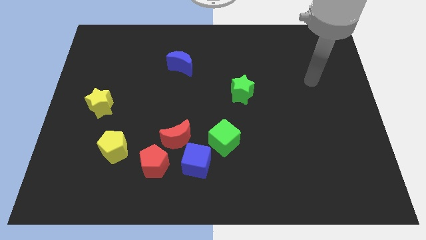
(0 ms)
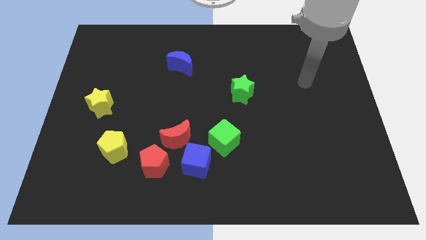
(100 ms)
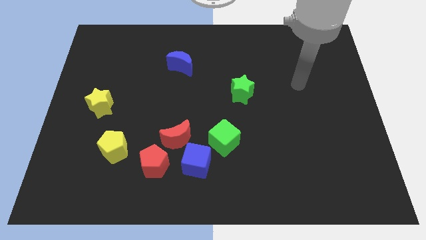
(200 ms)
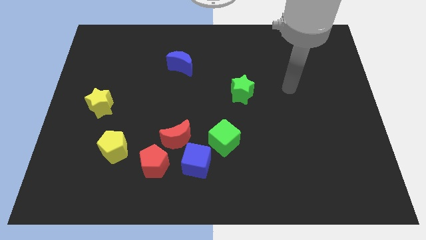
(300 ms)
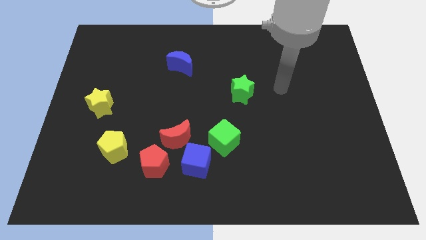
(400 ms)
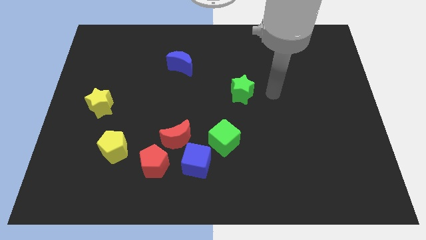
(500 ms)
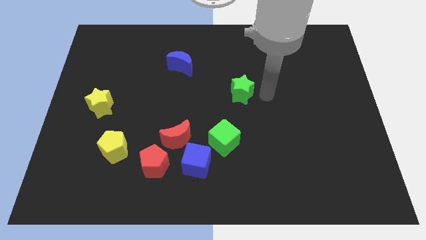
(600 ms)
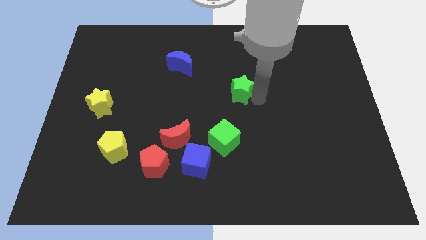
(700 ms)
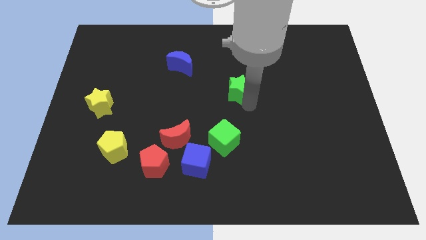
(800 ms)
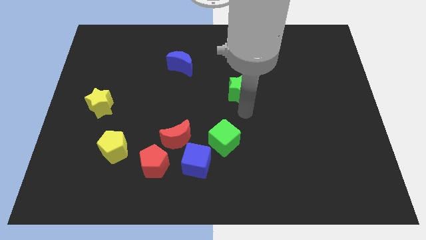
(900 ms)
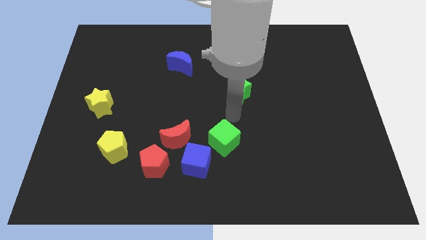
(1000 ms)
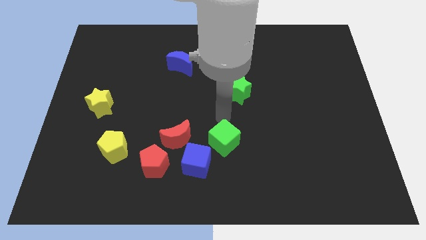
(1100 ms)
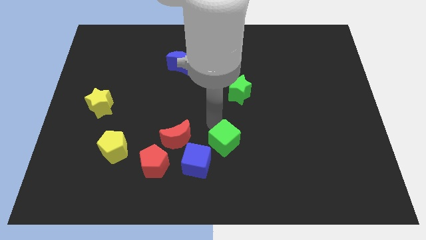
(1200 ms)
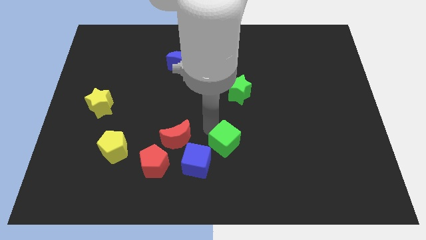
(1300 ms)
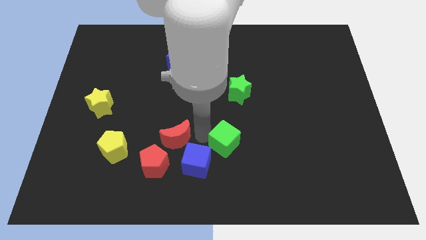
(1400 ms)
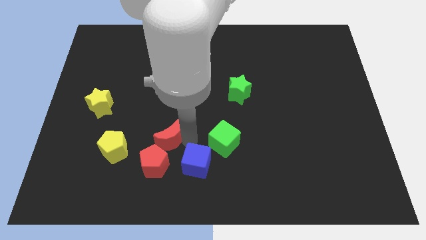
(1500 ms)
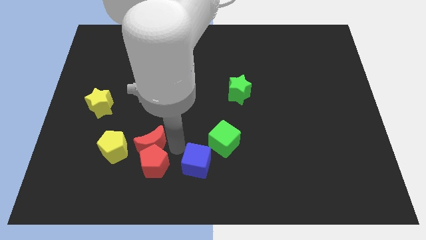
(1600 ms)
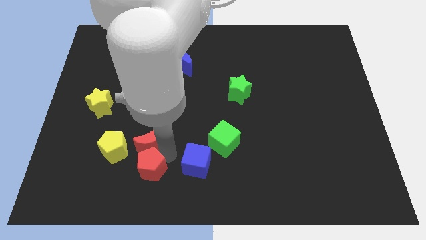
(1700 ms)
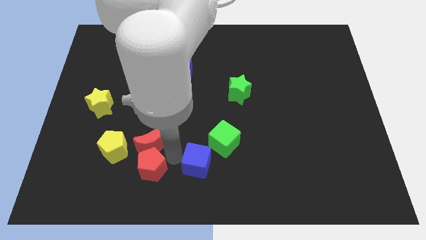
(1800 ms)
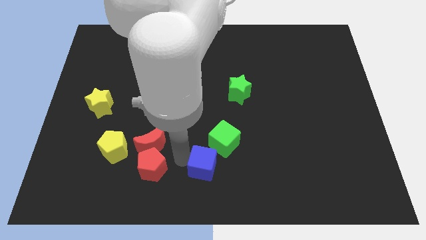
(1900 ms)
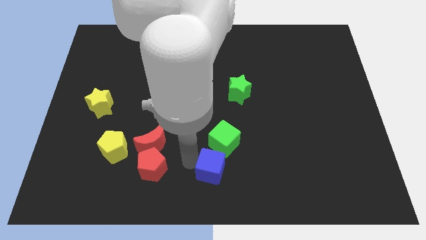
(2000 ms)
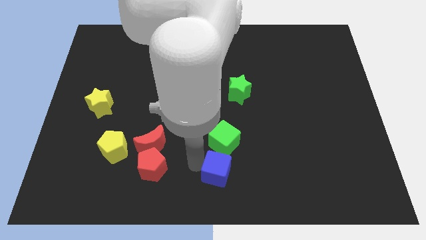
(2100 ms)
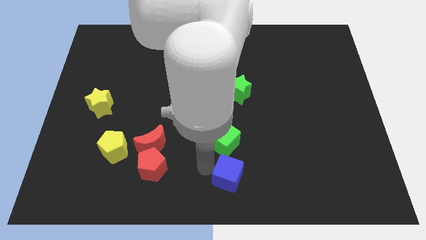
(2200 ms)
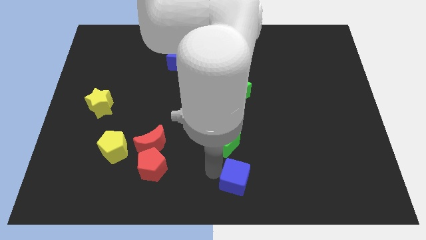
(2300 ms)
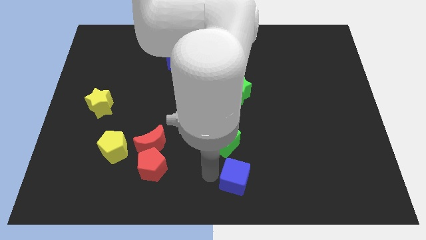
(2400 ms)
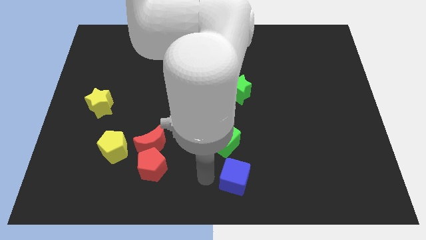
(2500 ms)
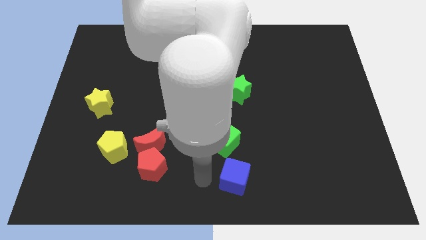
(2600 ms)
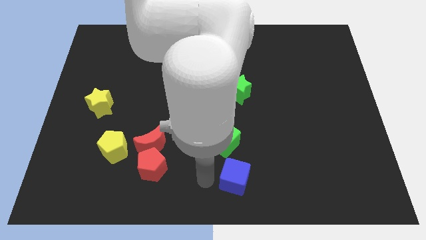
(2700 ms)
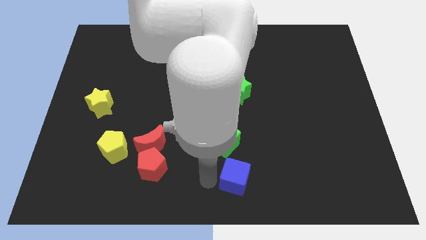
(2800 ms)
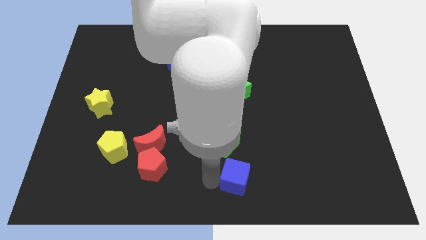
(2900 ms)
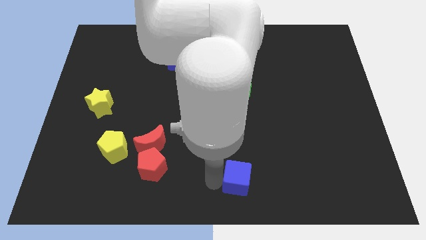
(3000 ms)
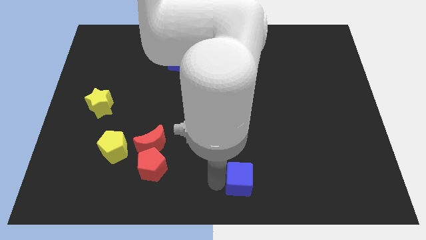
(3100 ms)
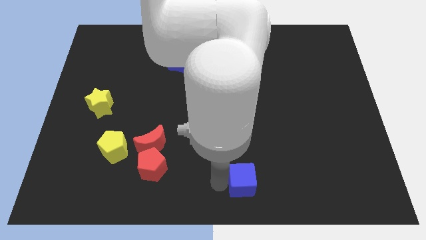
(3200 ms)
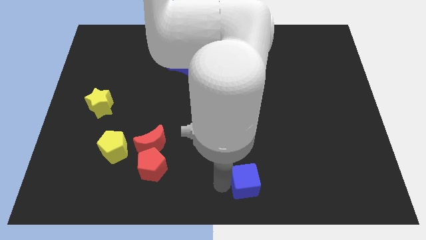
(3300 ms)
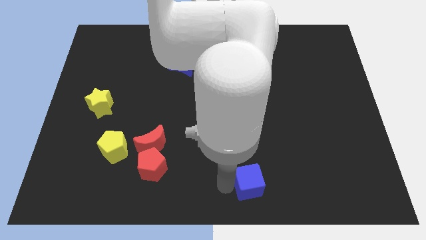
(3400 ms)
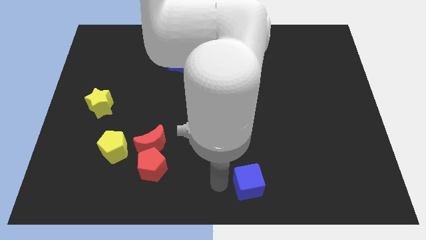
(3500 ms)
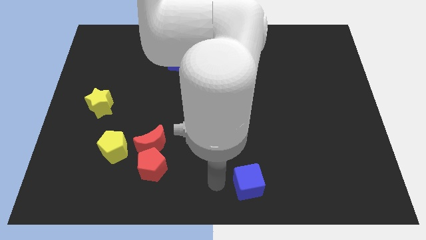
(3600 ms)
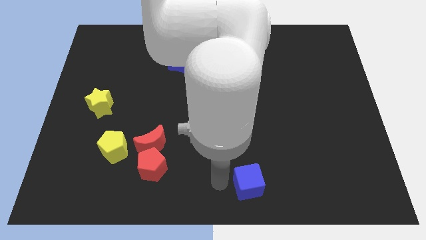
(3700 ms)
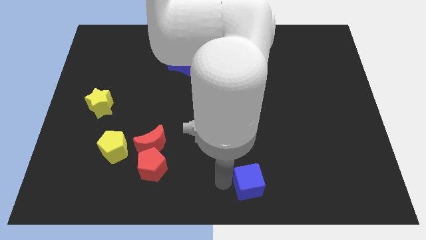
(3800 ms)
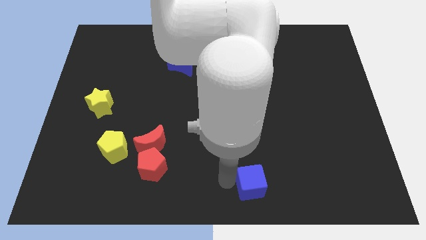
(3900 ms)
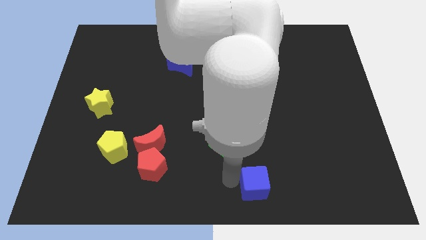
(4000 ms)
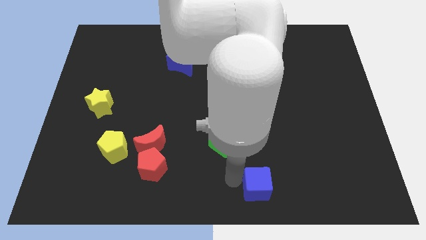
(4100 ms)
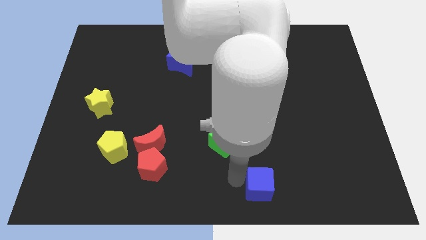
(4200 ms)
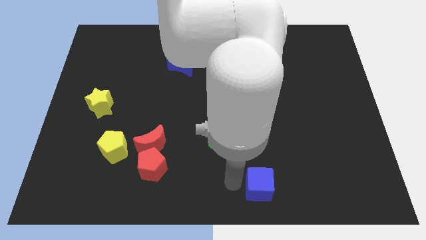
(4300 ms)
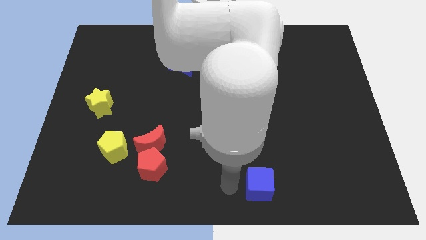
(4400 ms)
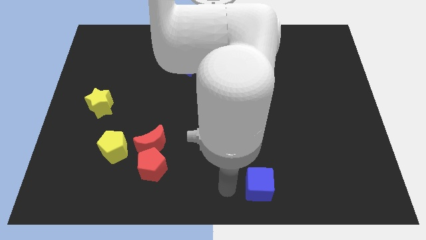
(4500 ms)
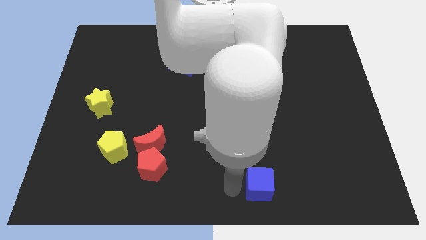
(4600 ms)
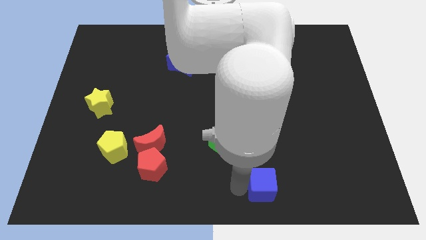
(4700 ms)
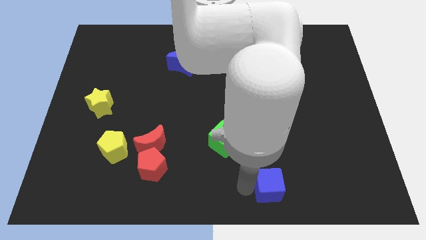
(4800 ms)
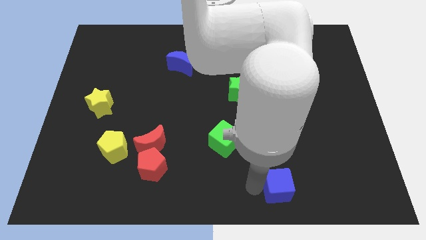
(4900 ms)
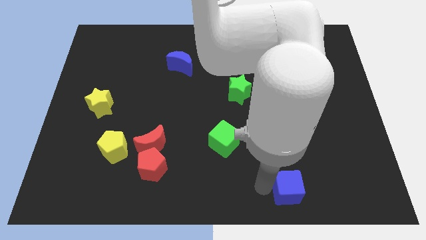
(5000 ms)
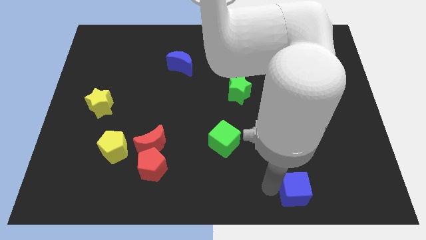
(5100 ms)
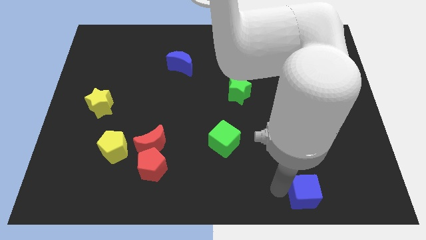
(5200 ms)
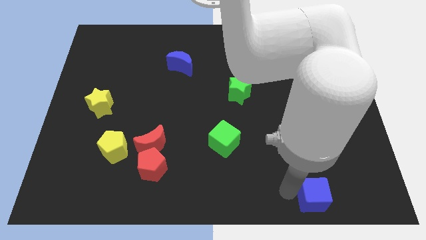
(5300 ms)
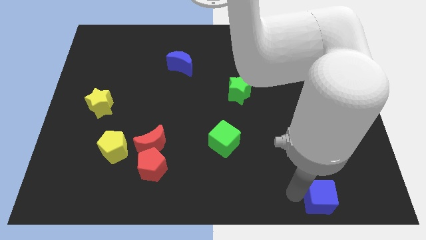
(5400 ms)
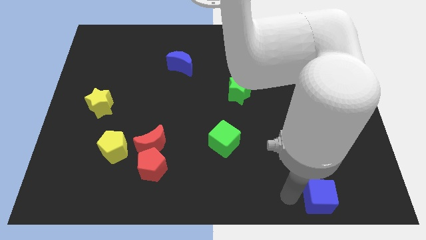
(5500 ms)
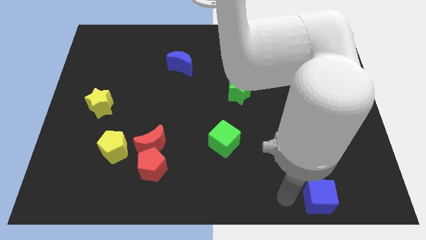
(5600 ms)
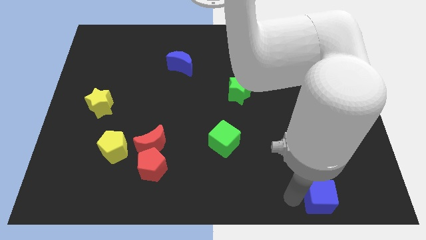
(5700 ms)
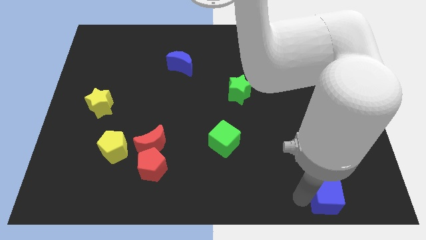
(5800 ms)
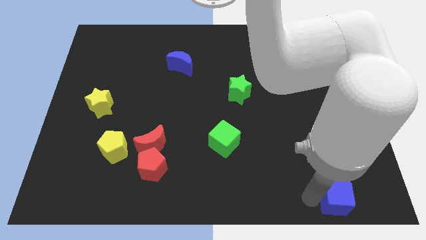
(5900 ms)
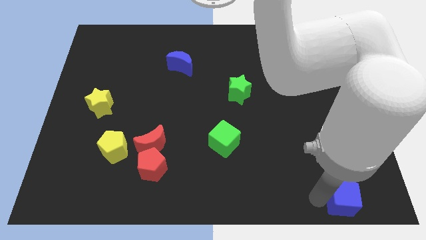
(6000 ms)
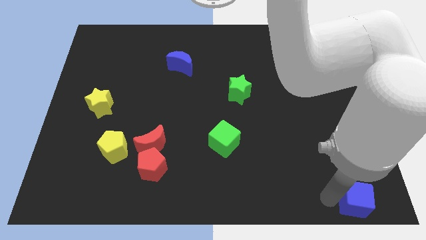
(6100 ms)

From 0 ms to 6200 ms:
slide the blue cube to the bottom right of the board

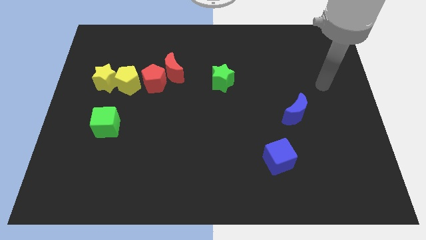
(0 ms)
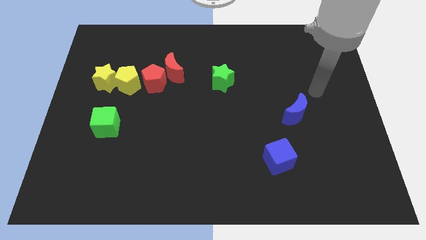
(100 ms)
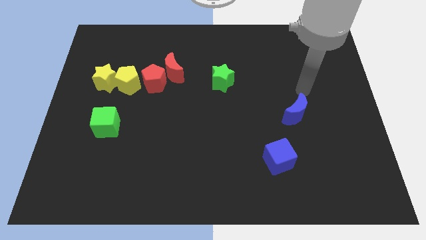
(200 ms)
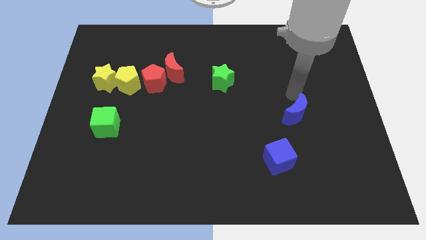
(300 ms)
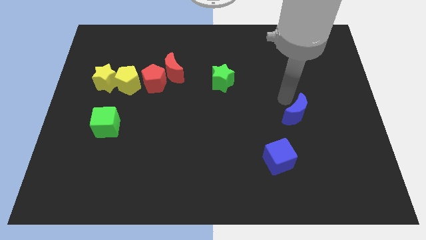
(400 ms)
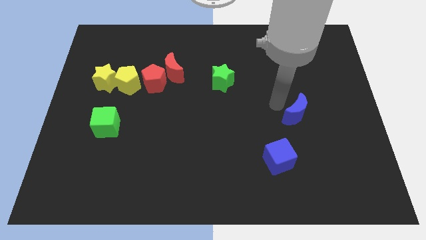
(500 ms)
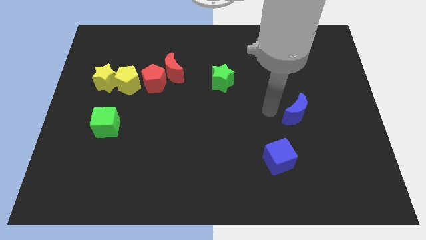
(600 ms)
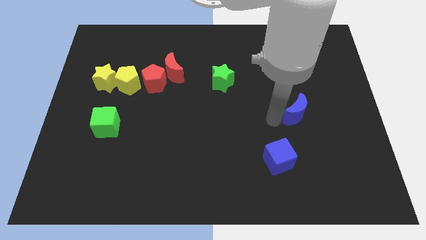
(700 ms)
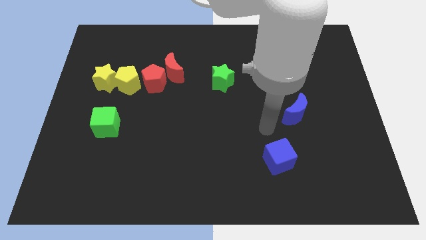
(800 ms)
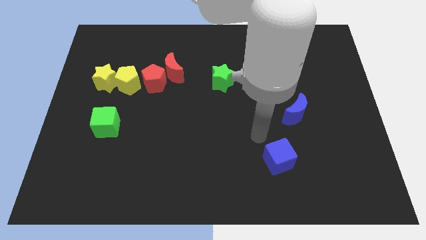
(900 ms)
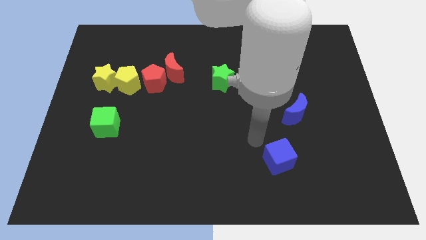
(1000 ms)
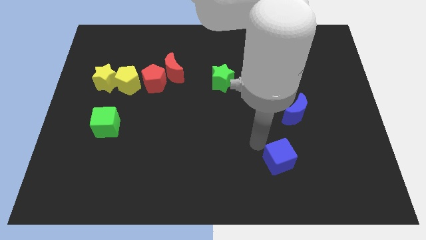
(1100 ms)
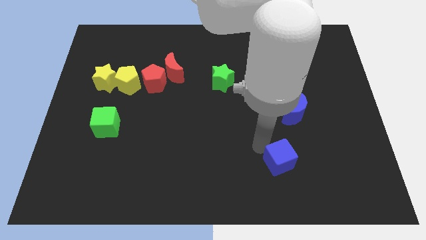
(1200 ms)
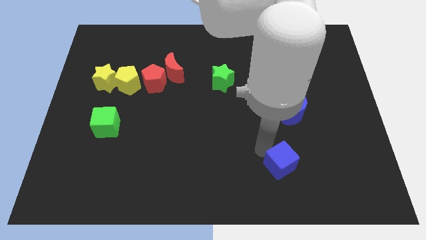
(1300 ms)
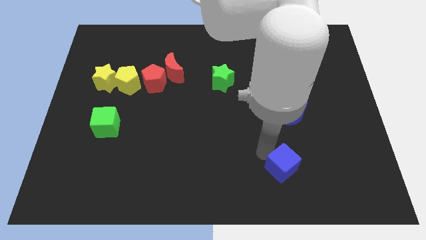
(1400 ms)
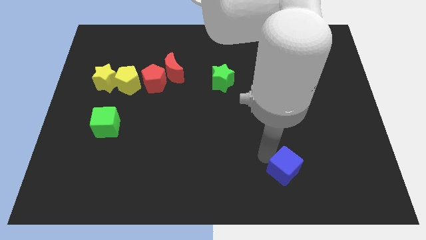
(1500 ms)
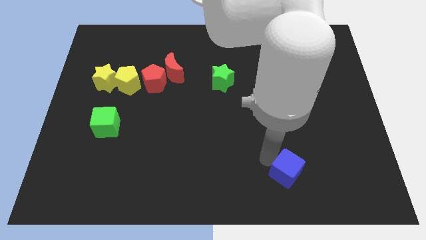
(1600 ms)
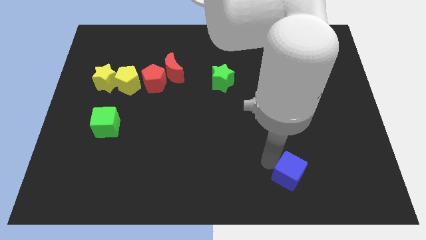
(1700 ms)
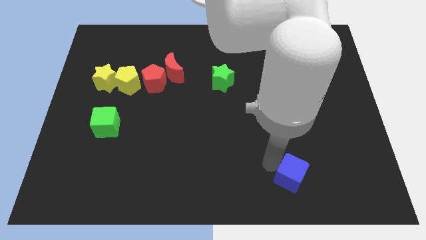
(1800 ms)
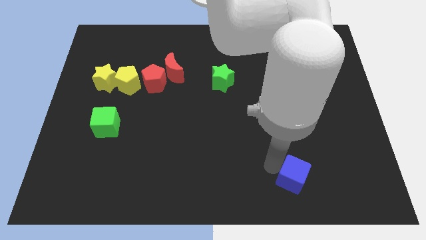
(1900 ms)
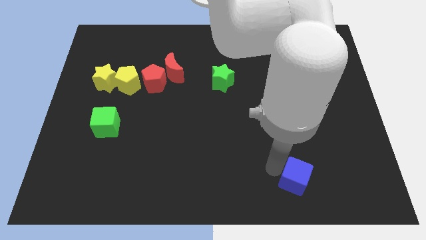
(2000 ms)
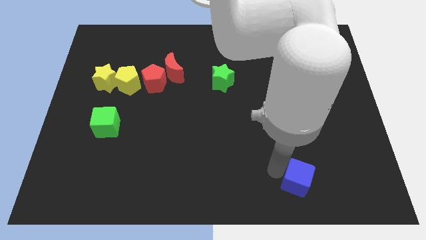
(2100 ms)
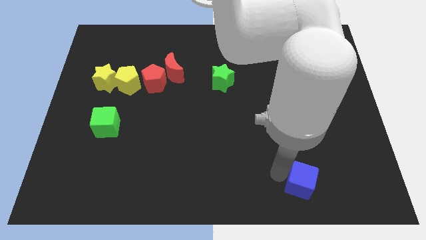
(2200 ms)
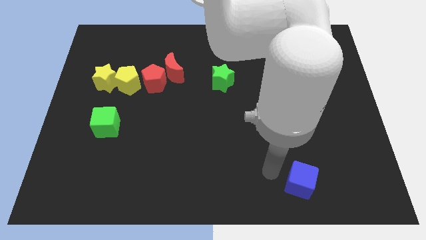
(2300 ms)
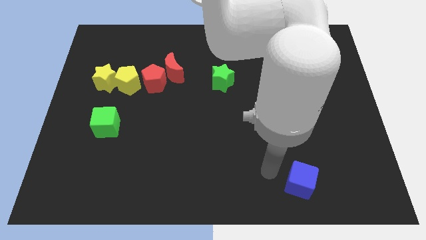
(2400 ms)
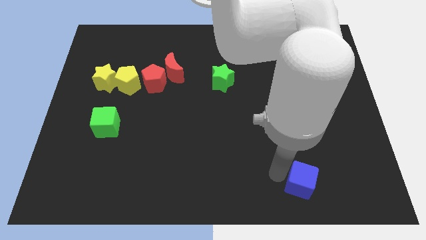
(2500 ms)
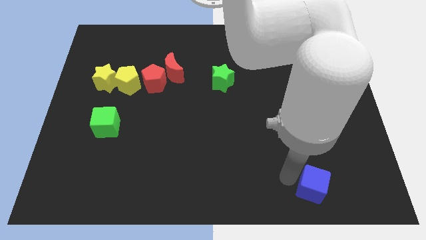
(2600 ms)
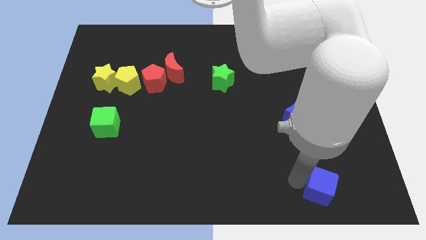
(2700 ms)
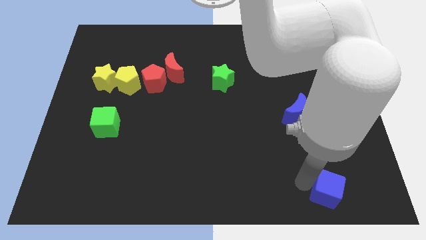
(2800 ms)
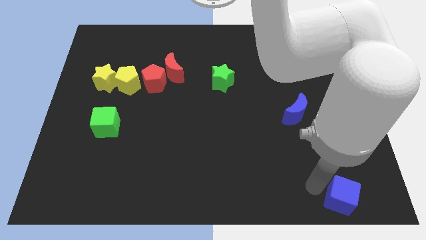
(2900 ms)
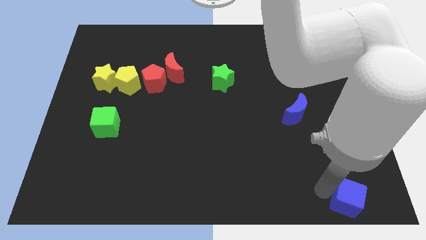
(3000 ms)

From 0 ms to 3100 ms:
push the blue cube to the bottom right corner
